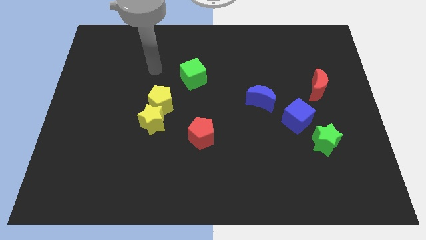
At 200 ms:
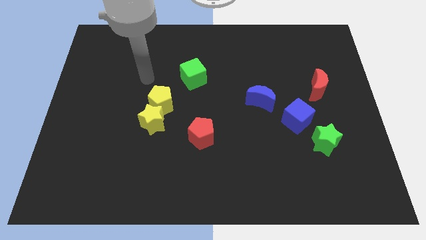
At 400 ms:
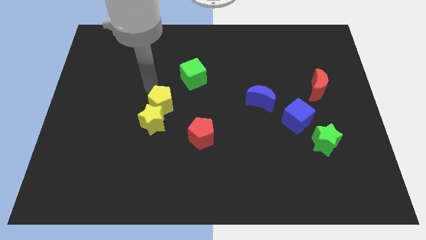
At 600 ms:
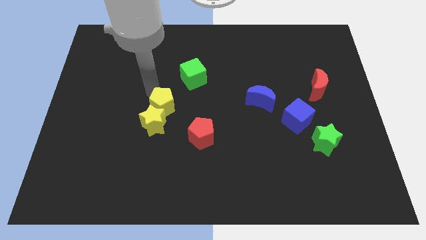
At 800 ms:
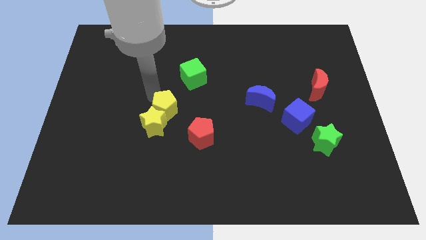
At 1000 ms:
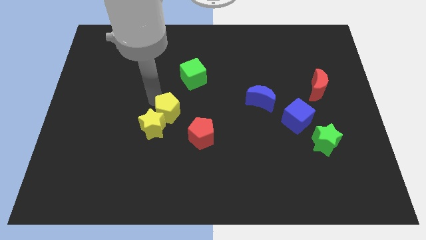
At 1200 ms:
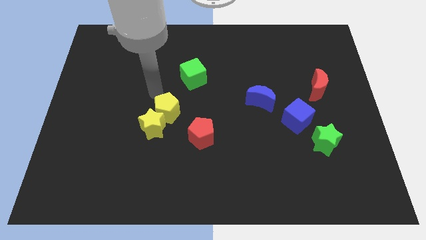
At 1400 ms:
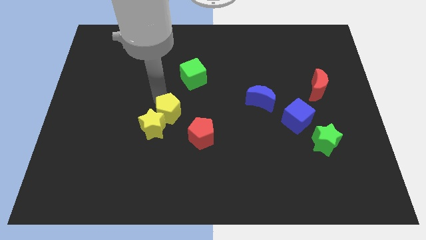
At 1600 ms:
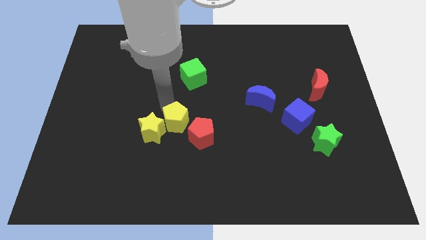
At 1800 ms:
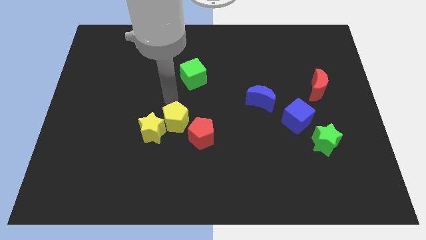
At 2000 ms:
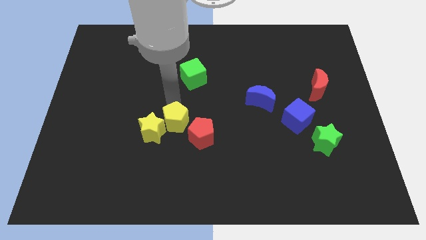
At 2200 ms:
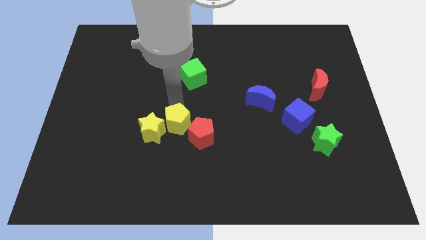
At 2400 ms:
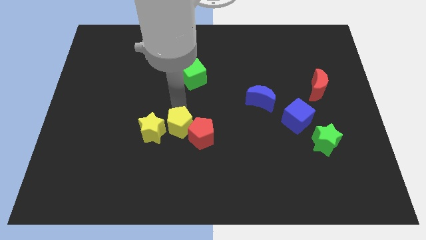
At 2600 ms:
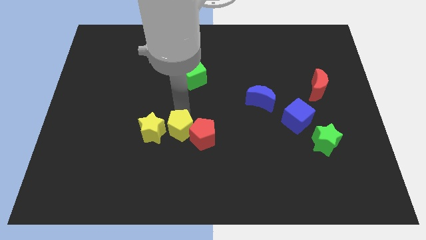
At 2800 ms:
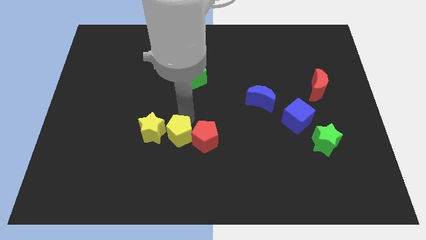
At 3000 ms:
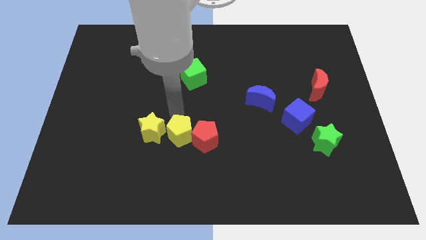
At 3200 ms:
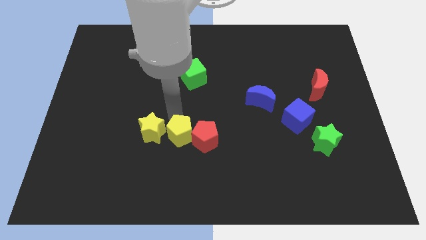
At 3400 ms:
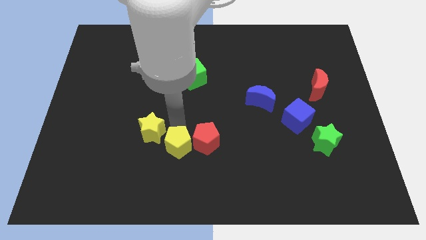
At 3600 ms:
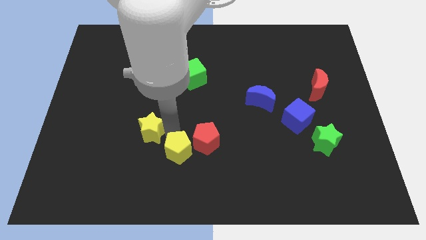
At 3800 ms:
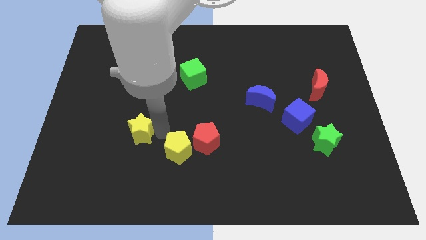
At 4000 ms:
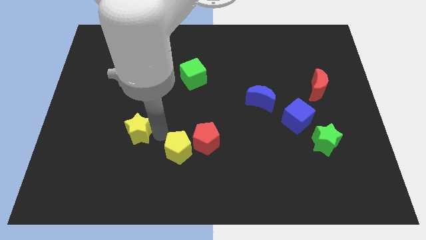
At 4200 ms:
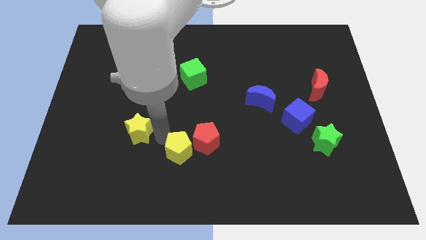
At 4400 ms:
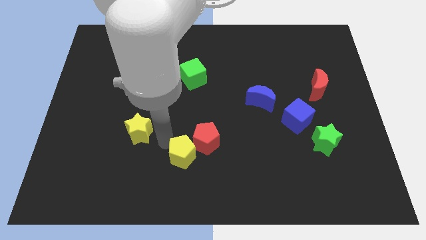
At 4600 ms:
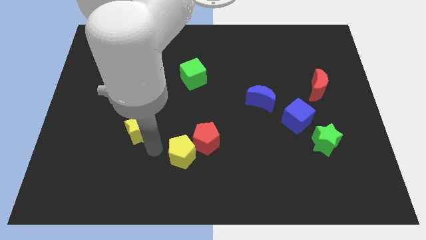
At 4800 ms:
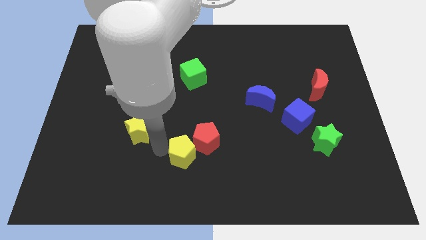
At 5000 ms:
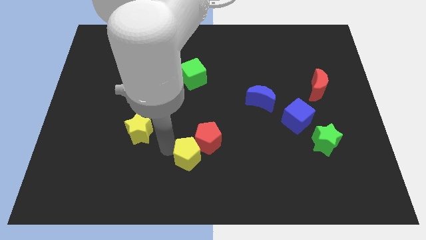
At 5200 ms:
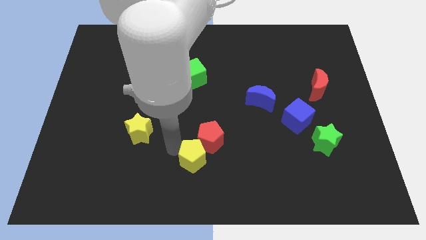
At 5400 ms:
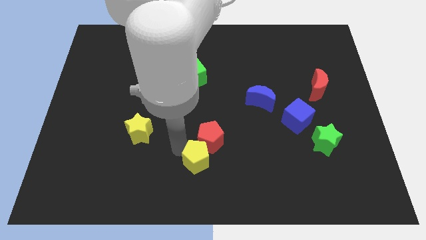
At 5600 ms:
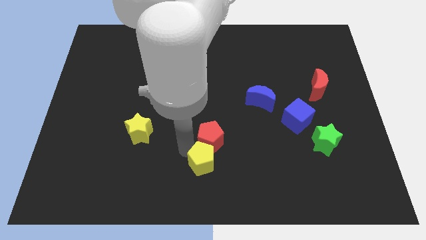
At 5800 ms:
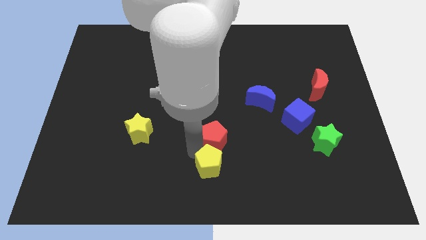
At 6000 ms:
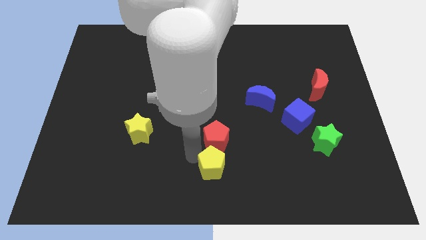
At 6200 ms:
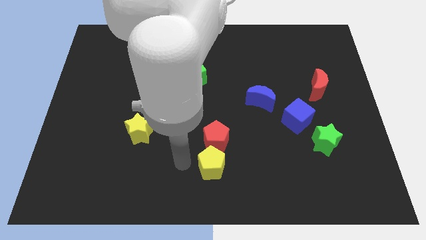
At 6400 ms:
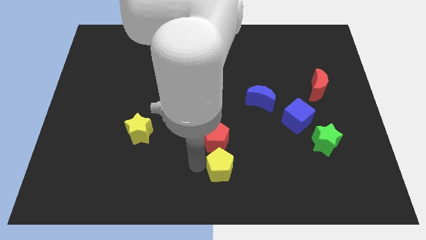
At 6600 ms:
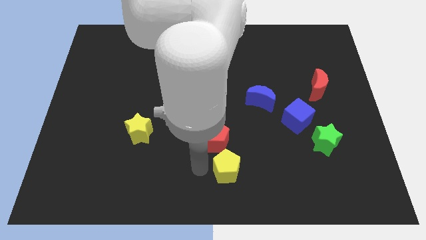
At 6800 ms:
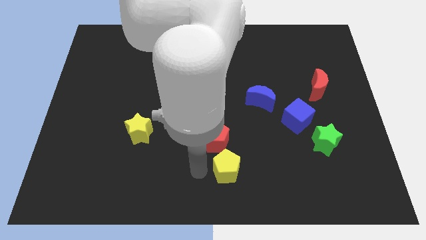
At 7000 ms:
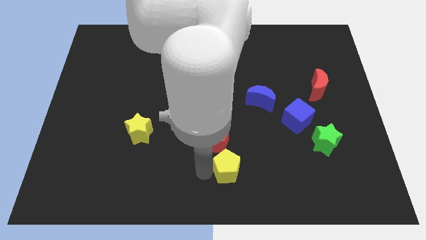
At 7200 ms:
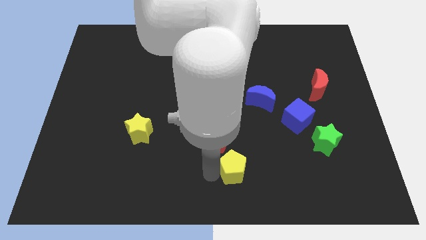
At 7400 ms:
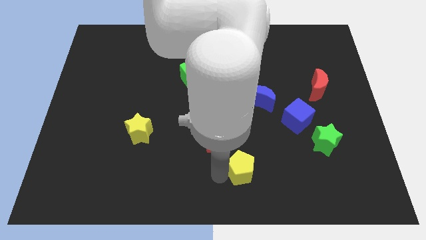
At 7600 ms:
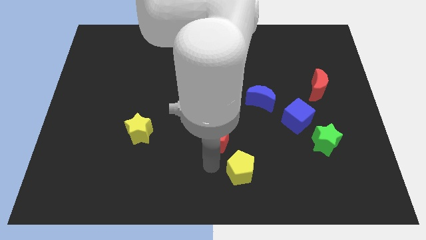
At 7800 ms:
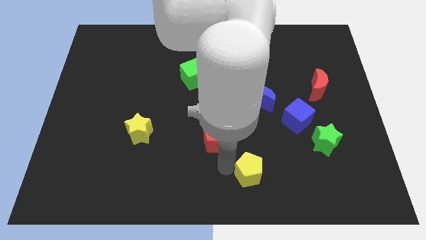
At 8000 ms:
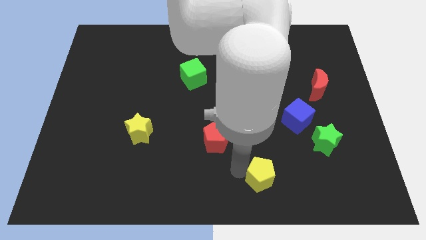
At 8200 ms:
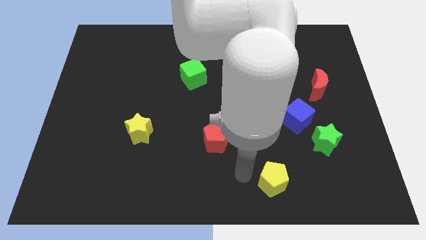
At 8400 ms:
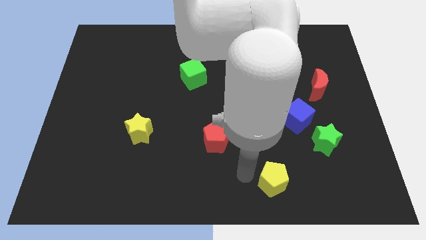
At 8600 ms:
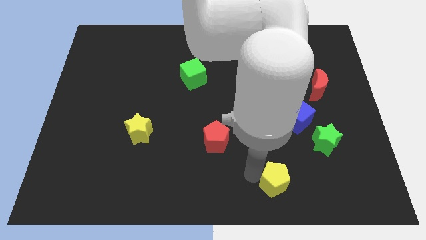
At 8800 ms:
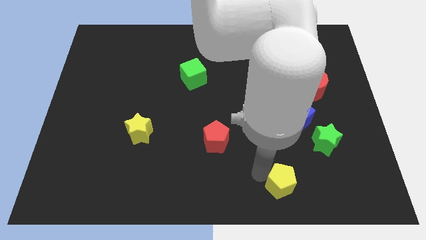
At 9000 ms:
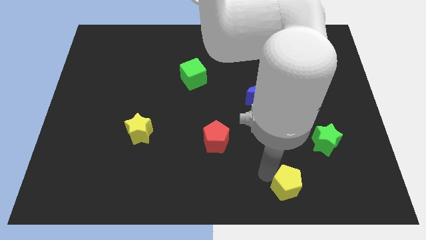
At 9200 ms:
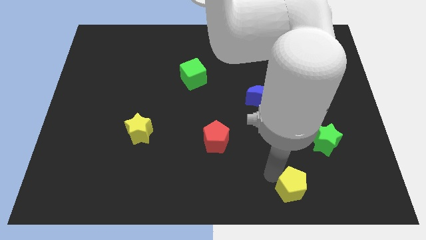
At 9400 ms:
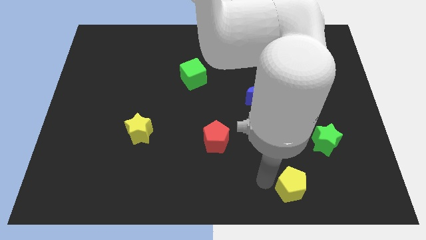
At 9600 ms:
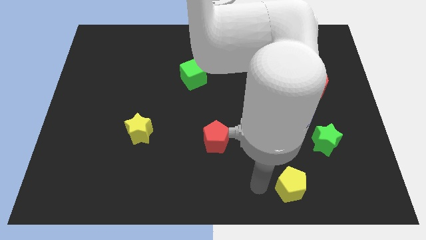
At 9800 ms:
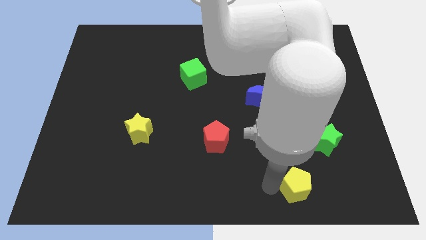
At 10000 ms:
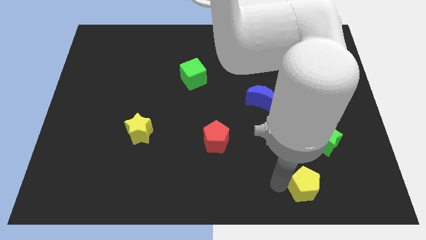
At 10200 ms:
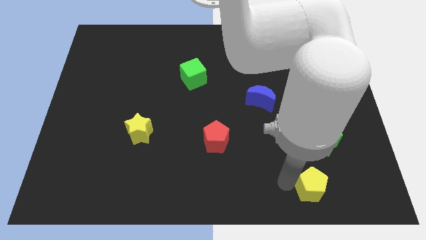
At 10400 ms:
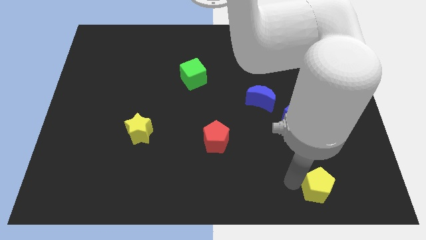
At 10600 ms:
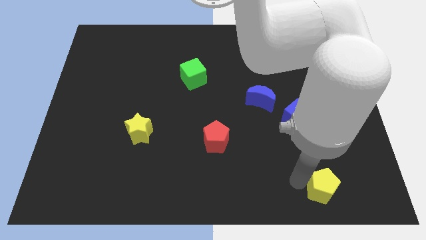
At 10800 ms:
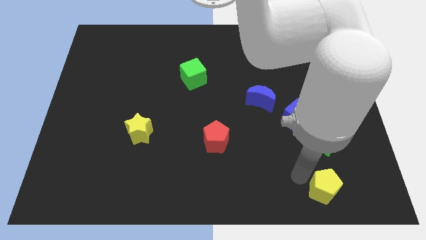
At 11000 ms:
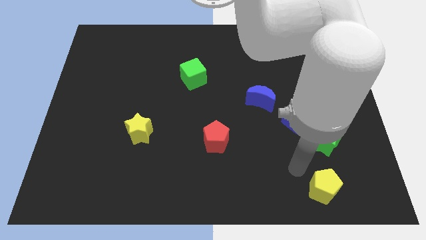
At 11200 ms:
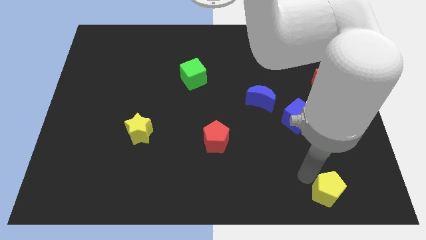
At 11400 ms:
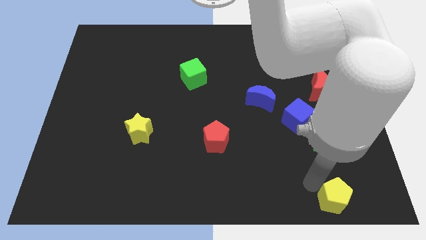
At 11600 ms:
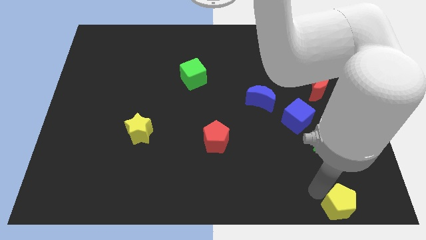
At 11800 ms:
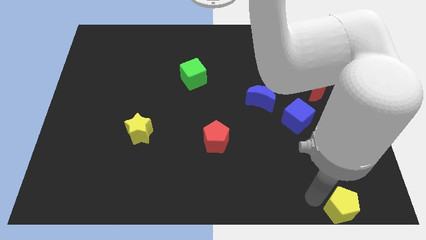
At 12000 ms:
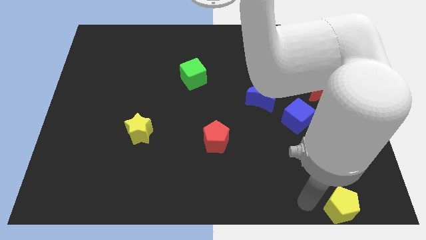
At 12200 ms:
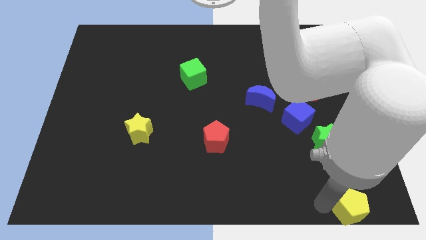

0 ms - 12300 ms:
put the yellow pentagon to the bottom right of the board

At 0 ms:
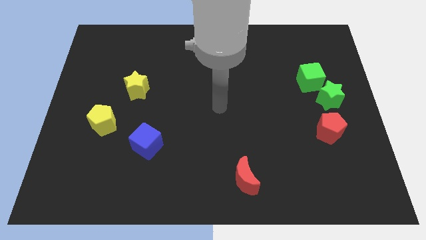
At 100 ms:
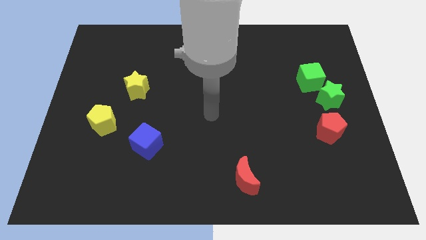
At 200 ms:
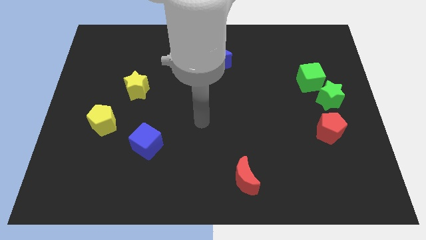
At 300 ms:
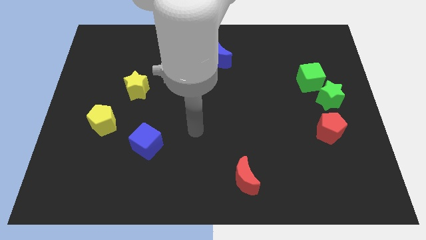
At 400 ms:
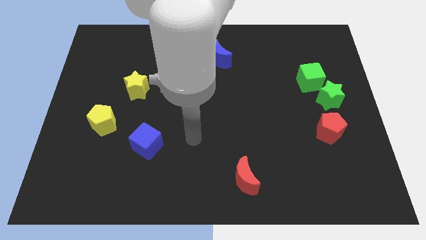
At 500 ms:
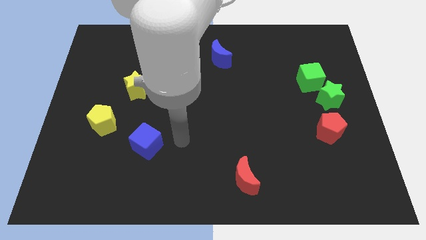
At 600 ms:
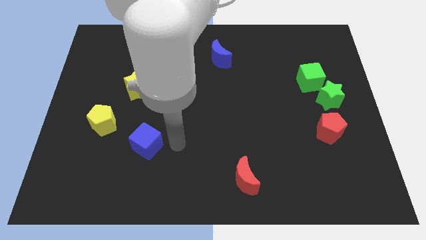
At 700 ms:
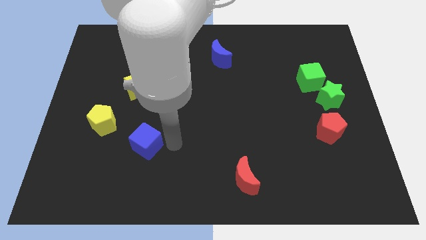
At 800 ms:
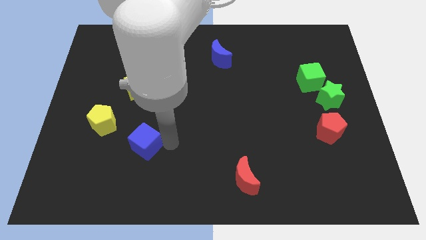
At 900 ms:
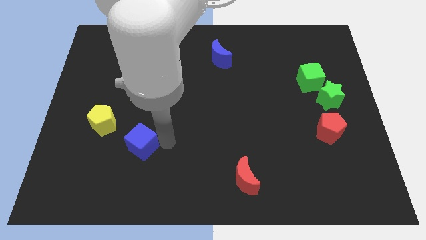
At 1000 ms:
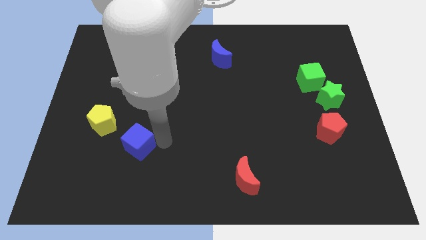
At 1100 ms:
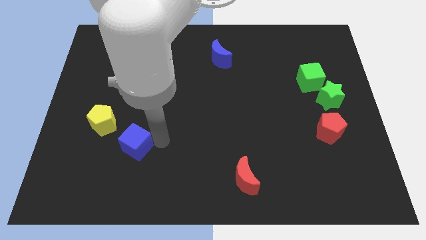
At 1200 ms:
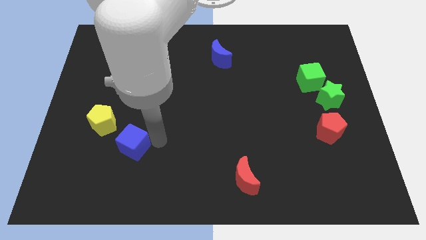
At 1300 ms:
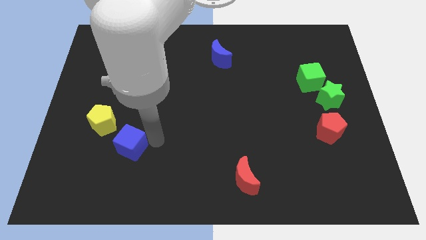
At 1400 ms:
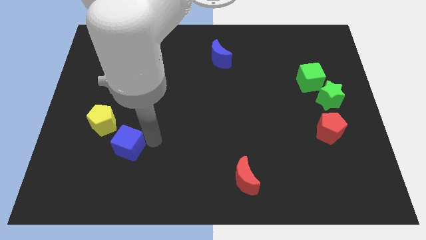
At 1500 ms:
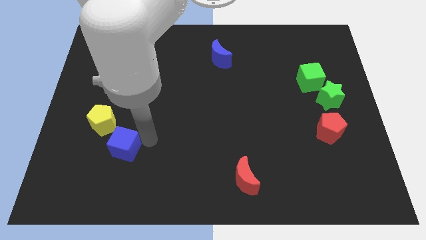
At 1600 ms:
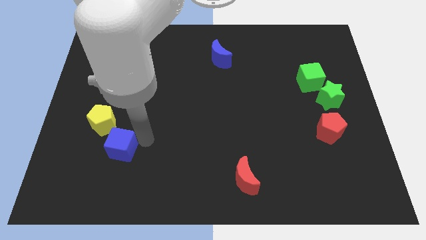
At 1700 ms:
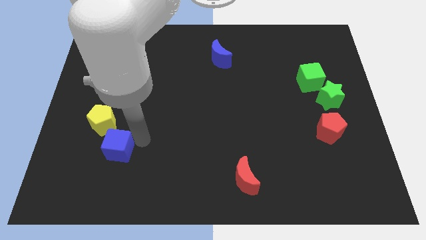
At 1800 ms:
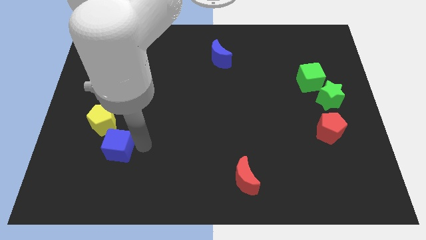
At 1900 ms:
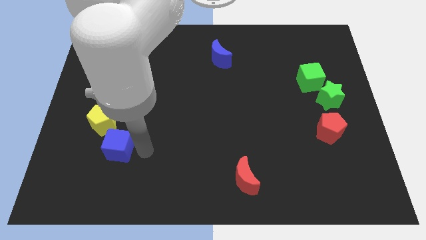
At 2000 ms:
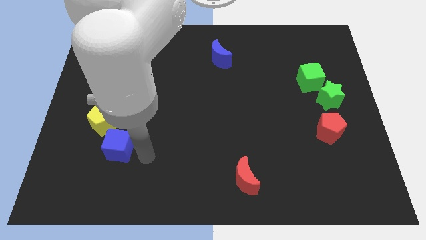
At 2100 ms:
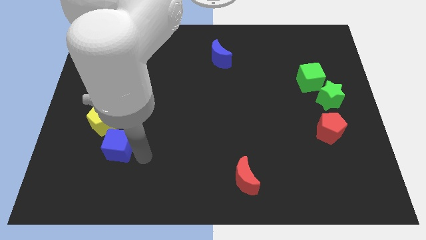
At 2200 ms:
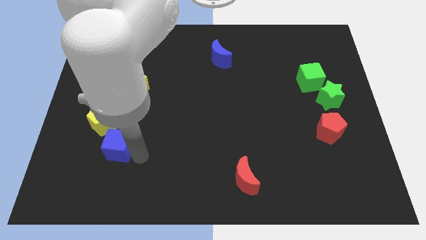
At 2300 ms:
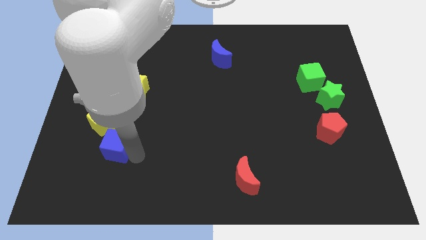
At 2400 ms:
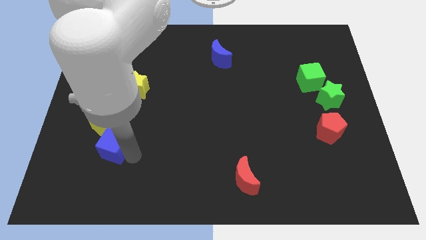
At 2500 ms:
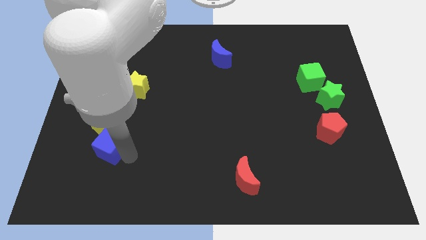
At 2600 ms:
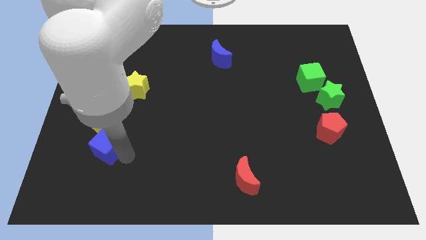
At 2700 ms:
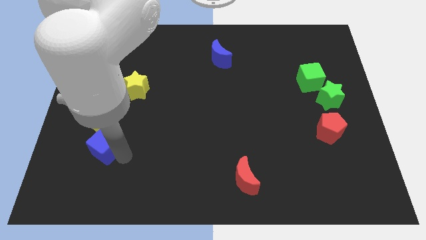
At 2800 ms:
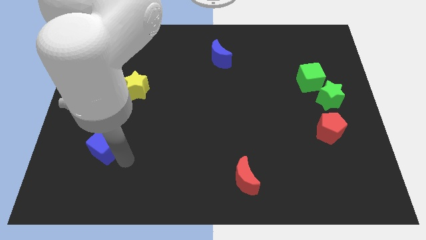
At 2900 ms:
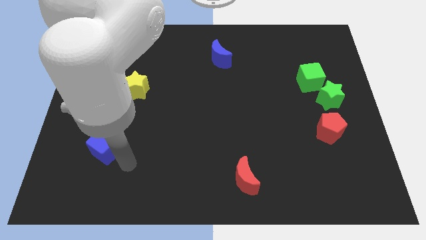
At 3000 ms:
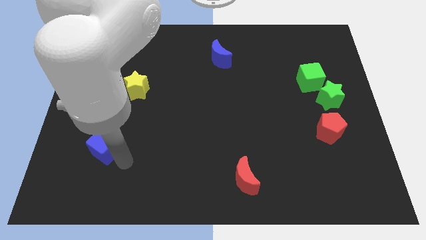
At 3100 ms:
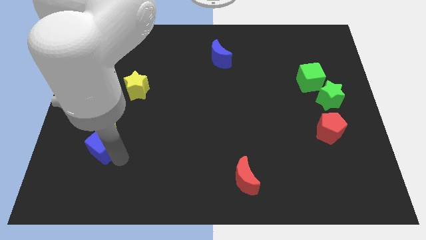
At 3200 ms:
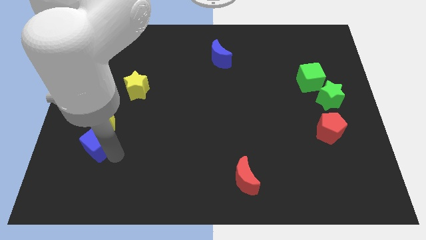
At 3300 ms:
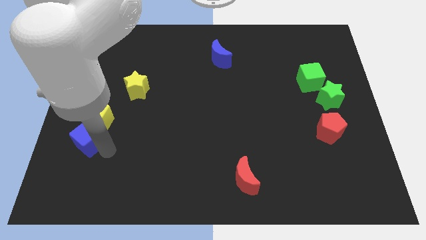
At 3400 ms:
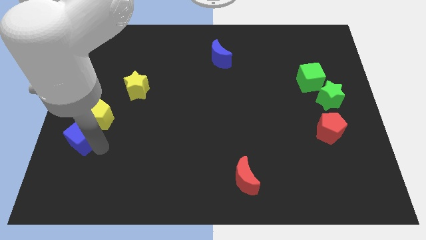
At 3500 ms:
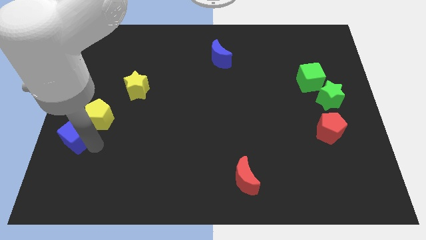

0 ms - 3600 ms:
push the blue cube to the center left
